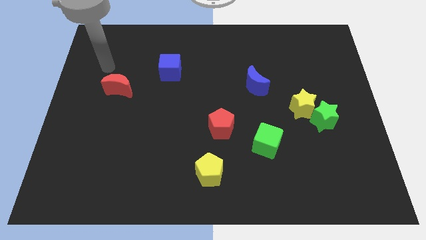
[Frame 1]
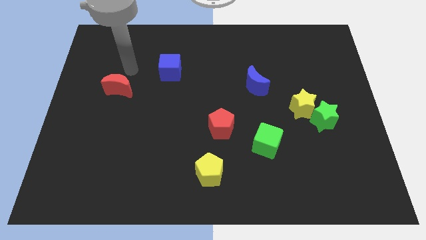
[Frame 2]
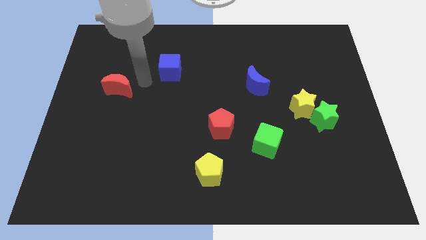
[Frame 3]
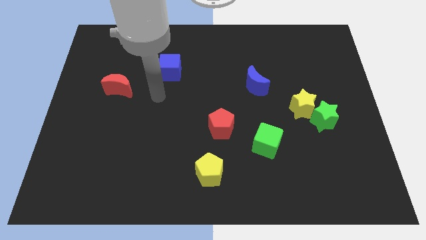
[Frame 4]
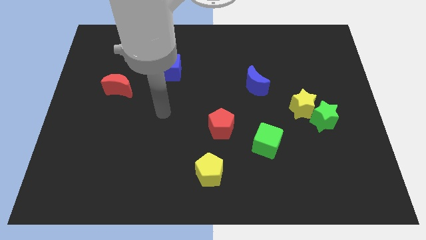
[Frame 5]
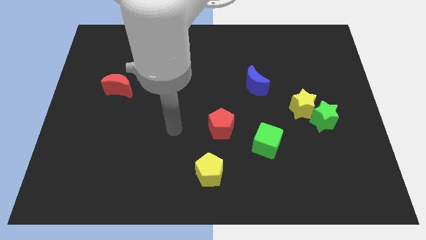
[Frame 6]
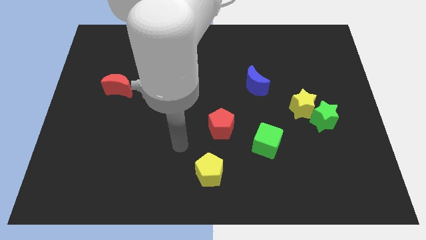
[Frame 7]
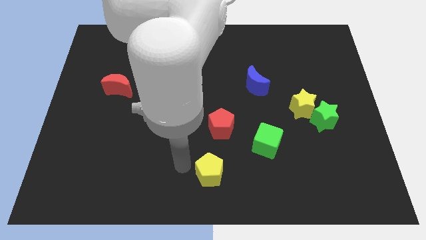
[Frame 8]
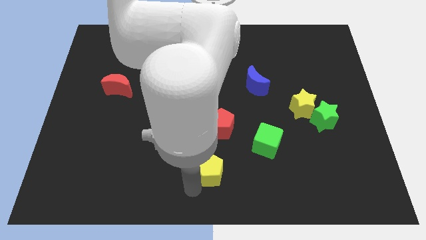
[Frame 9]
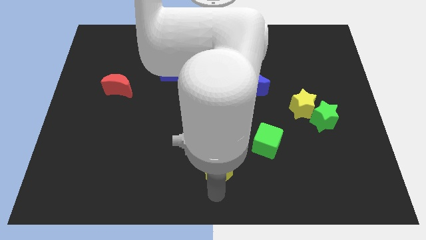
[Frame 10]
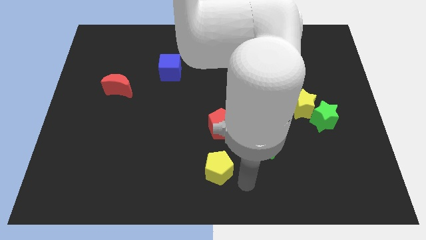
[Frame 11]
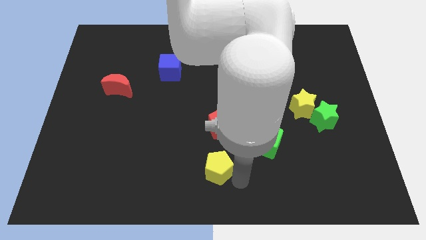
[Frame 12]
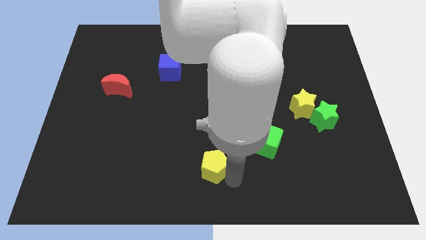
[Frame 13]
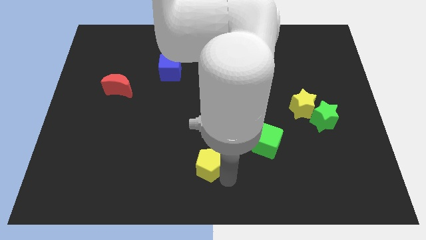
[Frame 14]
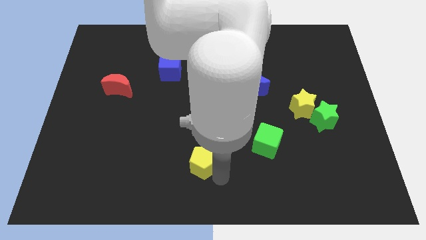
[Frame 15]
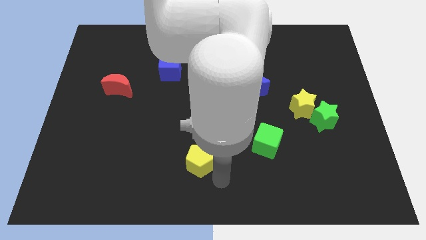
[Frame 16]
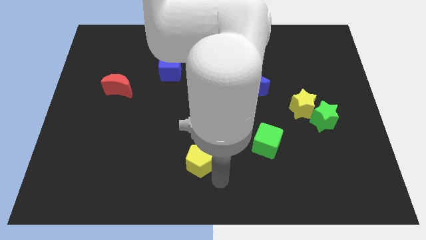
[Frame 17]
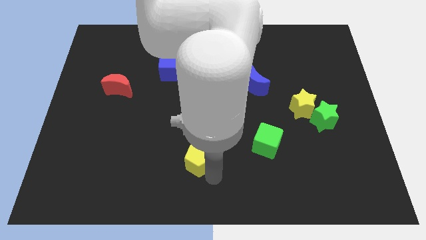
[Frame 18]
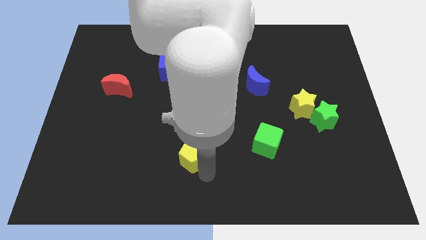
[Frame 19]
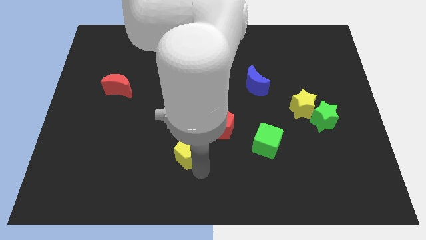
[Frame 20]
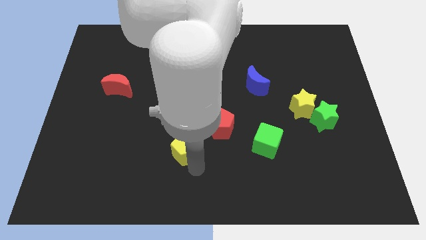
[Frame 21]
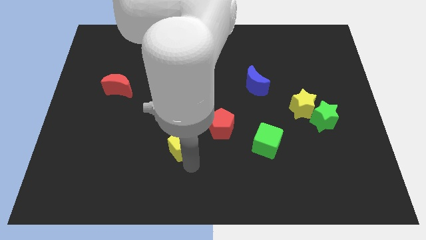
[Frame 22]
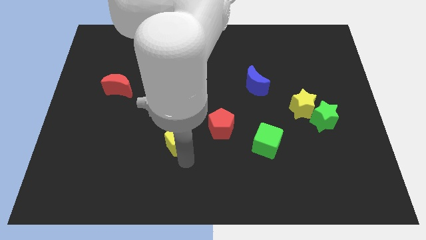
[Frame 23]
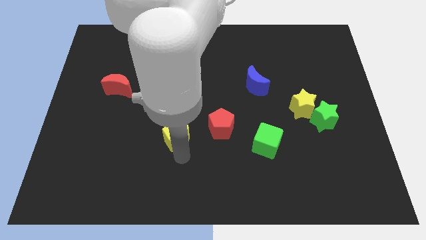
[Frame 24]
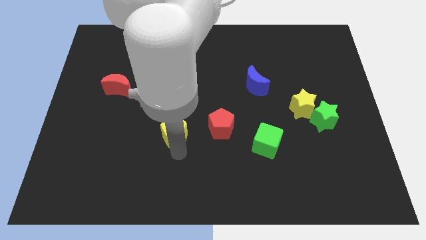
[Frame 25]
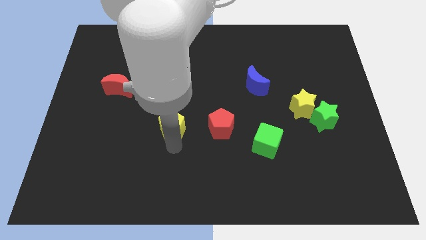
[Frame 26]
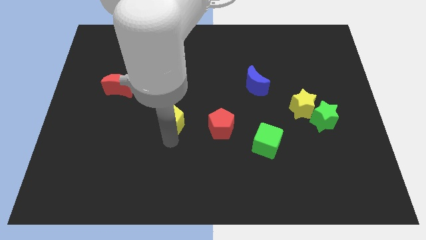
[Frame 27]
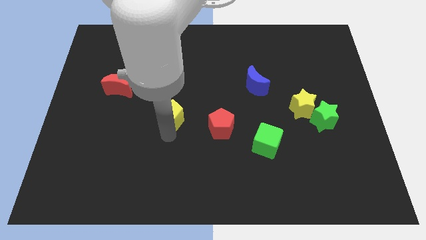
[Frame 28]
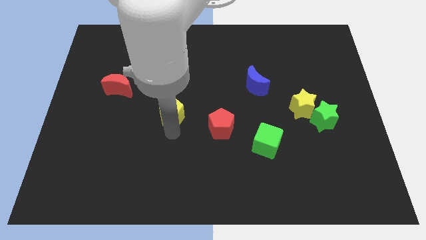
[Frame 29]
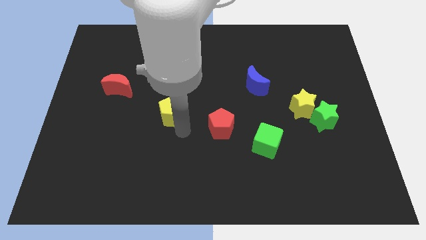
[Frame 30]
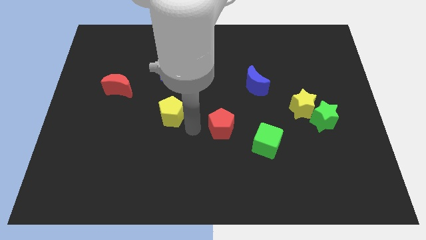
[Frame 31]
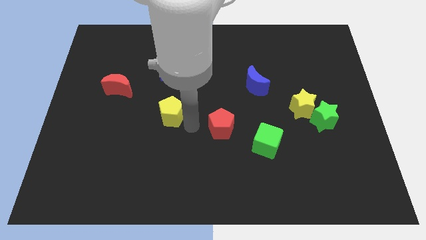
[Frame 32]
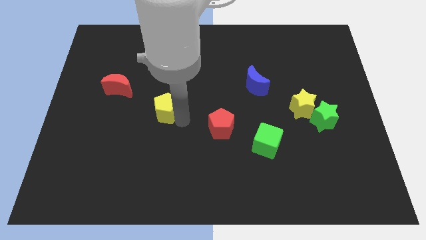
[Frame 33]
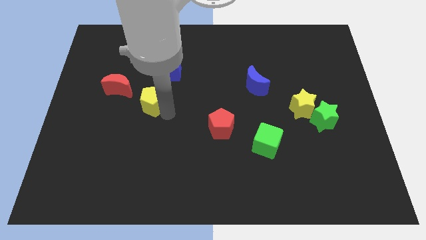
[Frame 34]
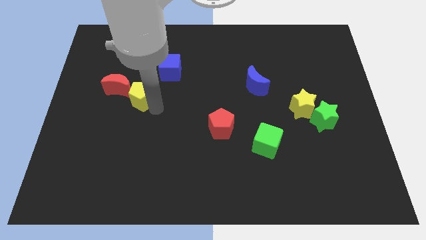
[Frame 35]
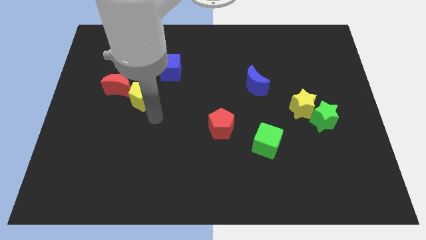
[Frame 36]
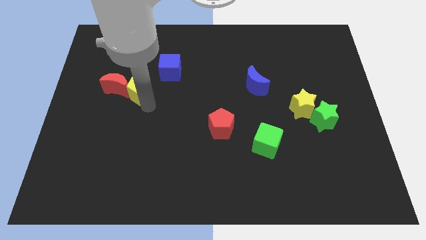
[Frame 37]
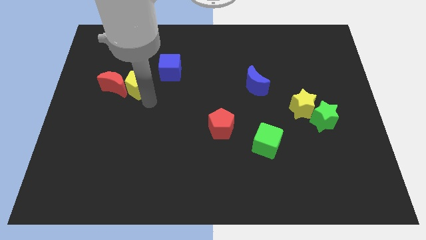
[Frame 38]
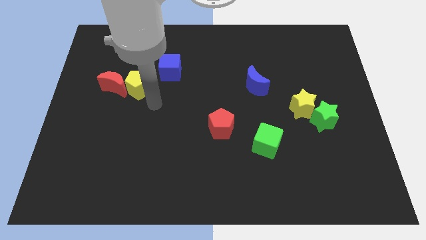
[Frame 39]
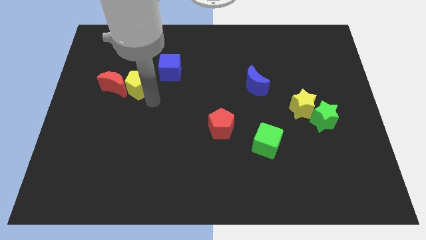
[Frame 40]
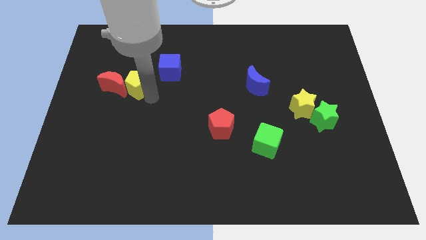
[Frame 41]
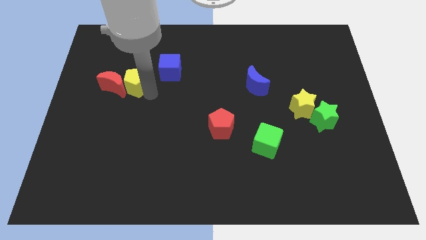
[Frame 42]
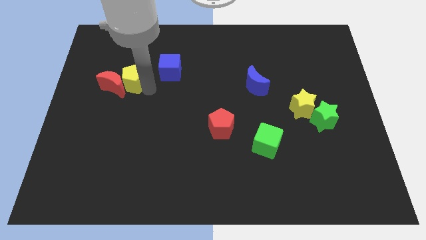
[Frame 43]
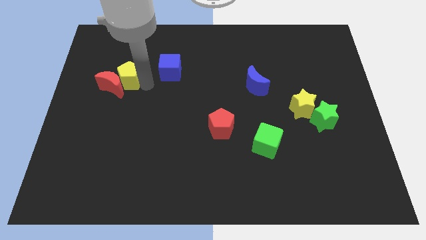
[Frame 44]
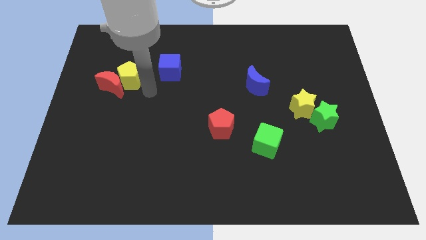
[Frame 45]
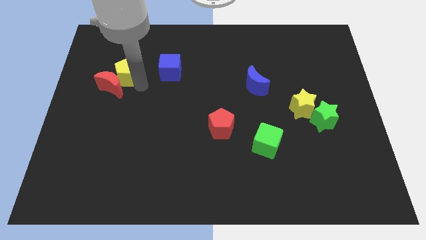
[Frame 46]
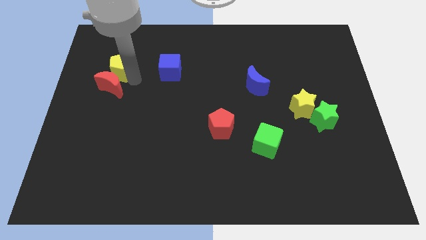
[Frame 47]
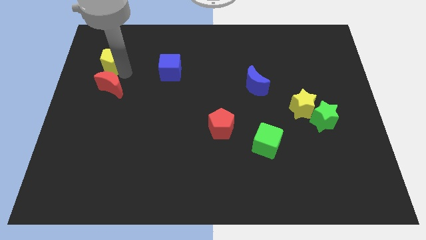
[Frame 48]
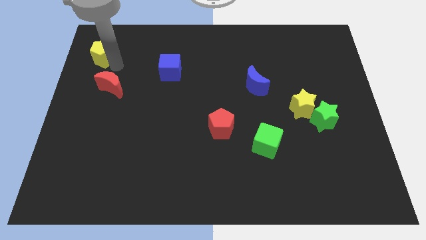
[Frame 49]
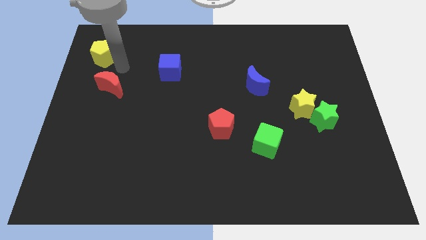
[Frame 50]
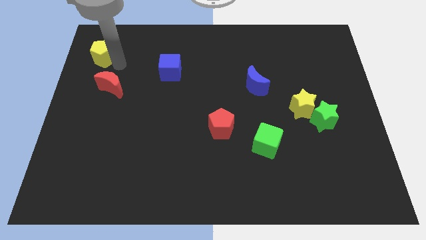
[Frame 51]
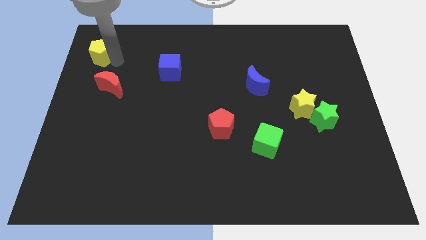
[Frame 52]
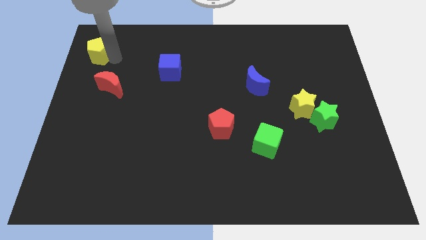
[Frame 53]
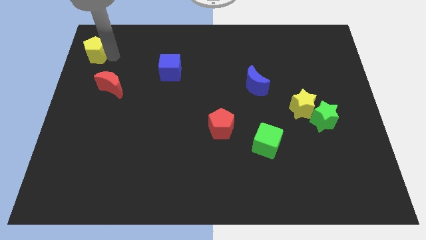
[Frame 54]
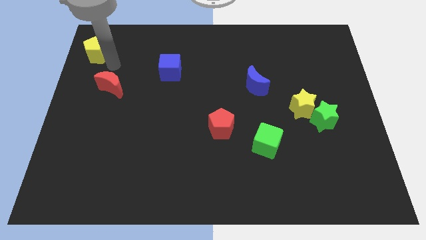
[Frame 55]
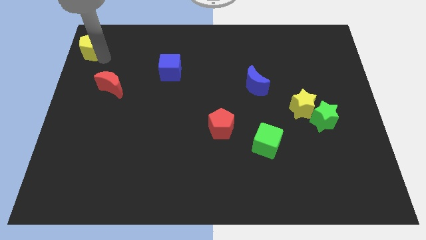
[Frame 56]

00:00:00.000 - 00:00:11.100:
slide the yellow pentagon to the top left corner

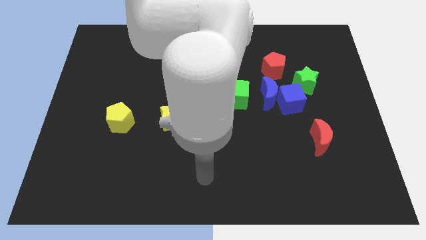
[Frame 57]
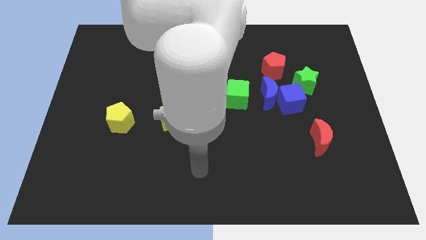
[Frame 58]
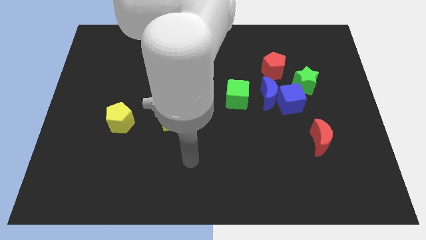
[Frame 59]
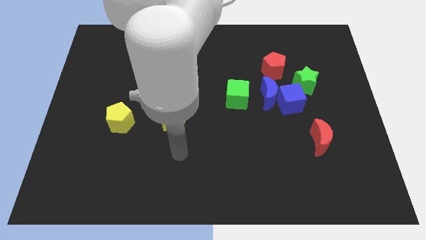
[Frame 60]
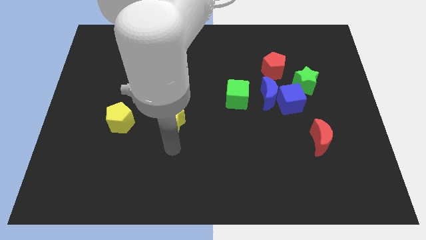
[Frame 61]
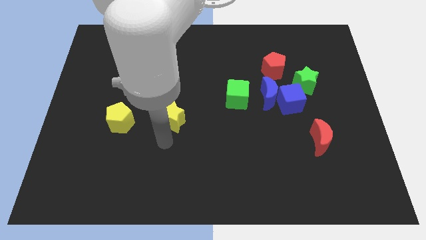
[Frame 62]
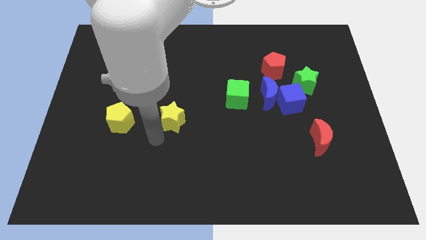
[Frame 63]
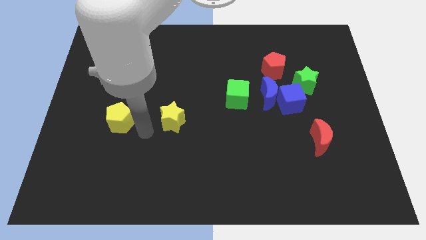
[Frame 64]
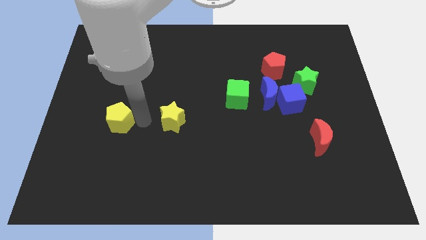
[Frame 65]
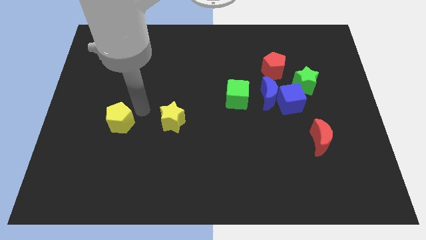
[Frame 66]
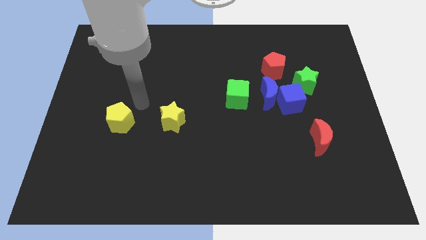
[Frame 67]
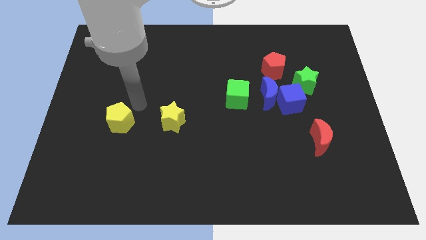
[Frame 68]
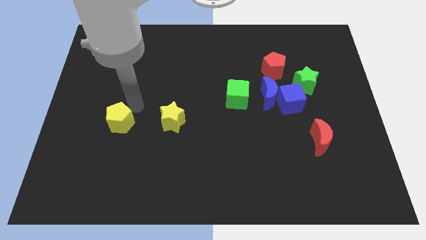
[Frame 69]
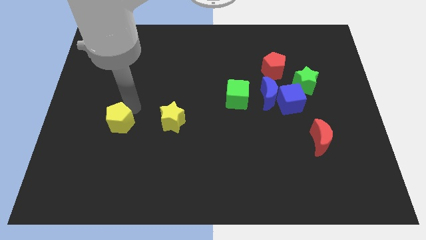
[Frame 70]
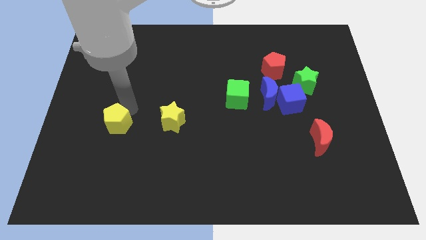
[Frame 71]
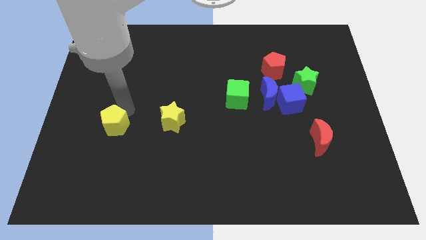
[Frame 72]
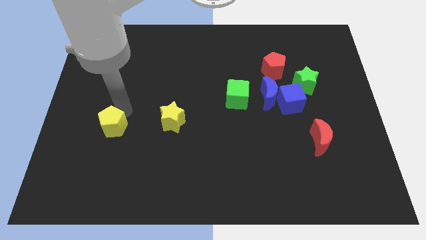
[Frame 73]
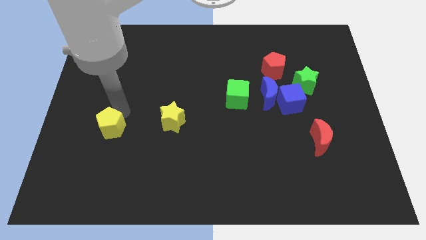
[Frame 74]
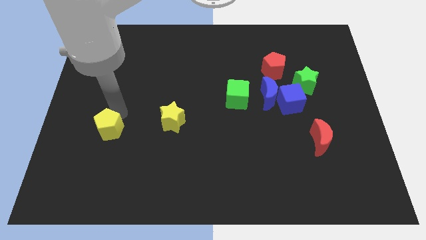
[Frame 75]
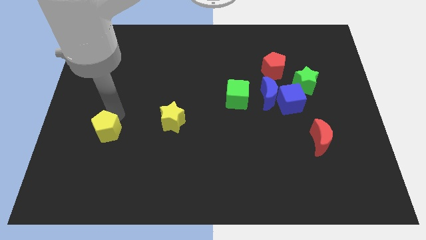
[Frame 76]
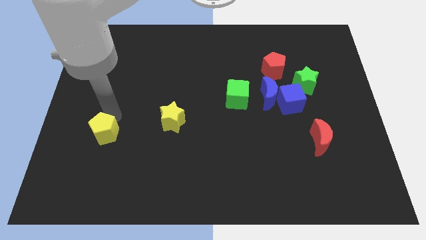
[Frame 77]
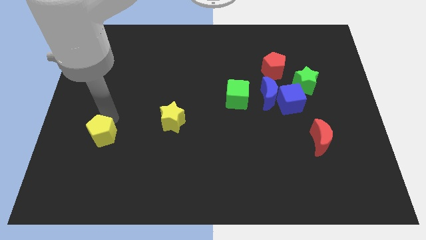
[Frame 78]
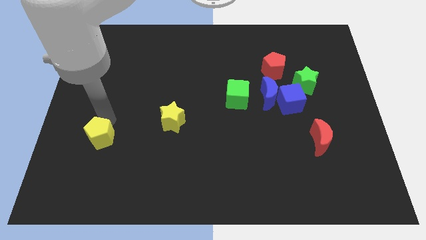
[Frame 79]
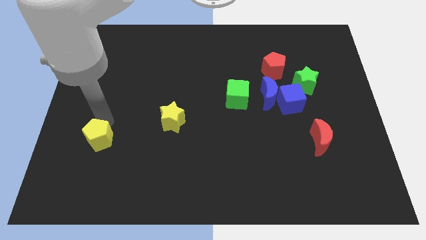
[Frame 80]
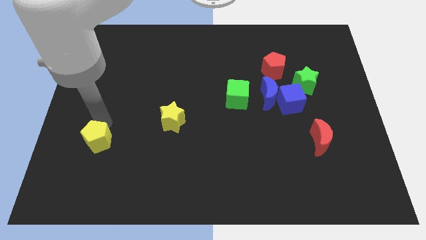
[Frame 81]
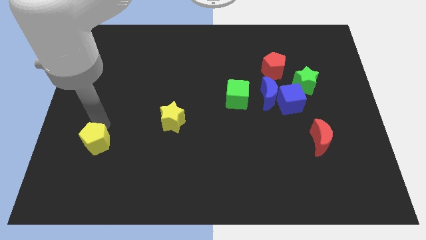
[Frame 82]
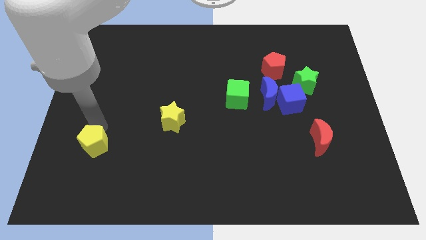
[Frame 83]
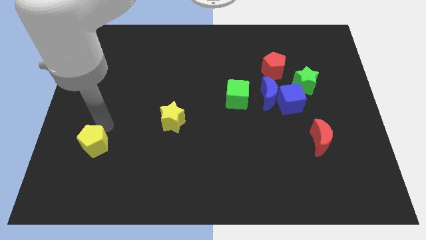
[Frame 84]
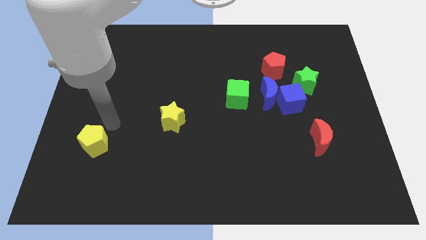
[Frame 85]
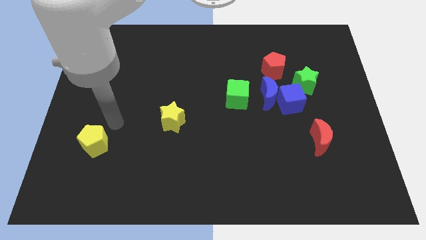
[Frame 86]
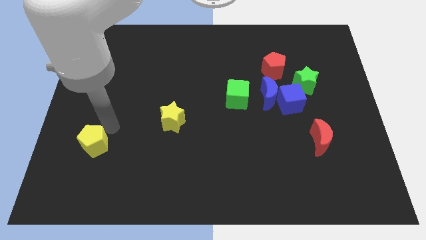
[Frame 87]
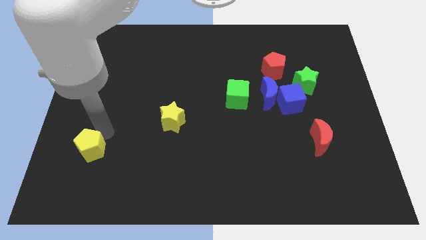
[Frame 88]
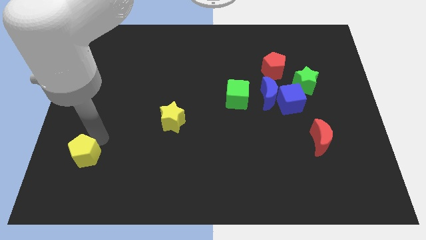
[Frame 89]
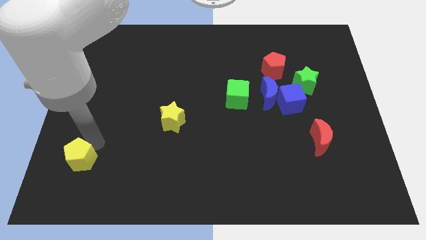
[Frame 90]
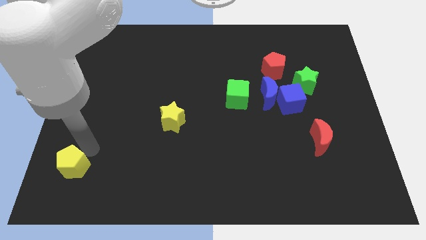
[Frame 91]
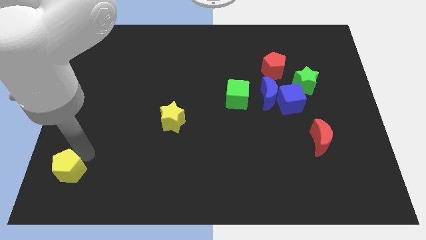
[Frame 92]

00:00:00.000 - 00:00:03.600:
slide the yellow pentagon to the lower left corner
